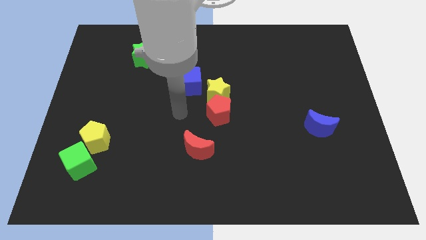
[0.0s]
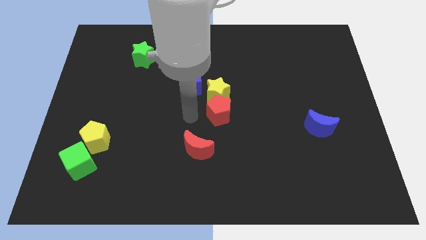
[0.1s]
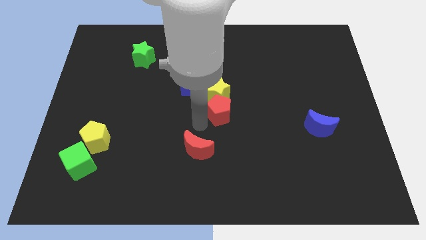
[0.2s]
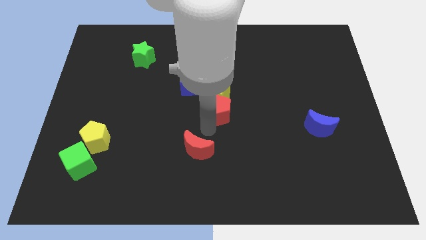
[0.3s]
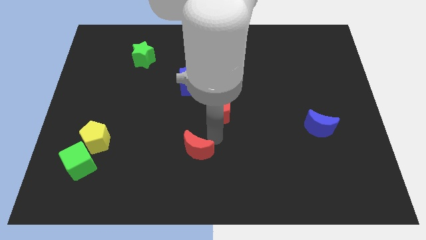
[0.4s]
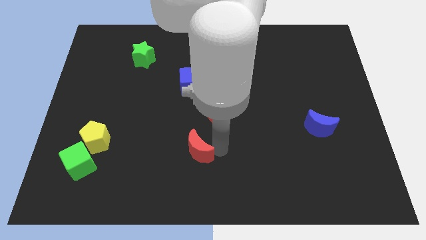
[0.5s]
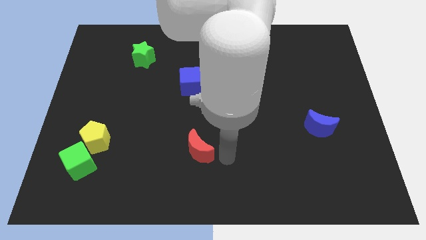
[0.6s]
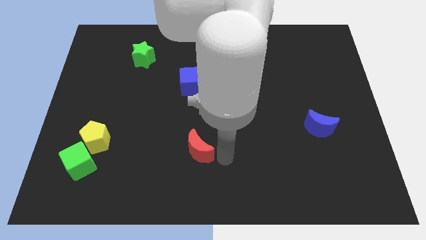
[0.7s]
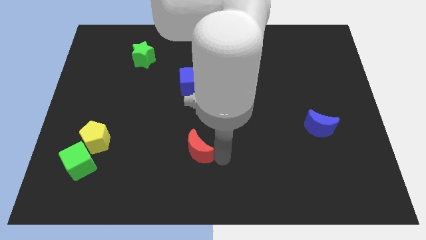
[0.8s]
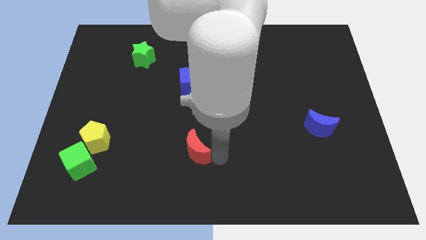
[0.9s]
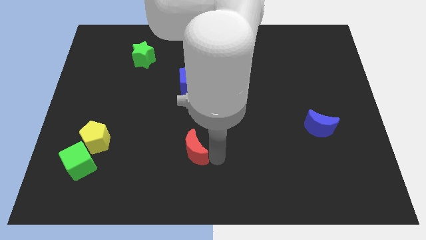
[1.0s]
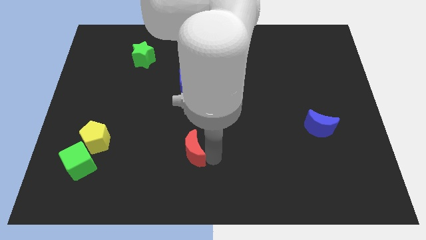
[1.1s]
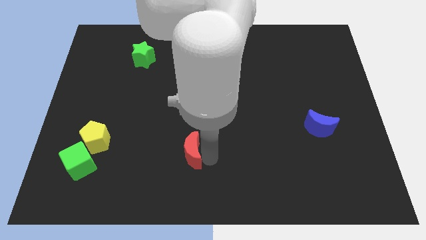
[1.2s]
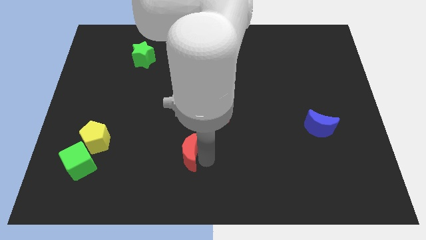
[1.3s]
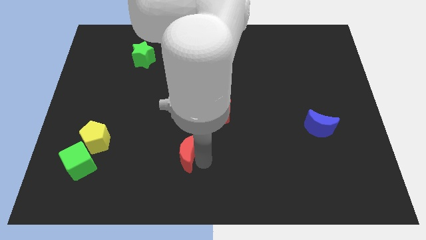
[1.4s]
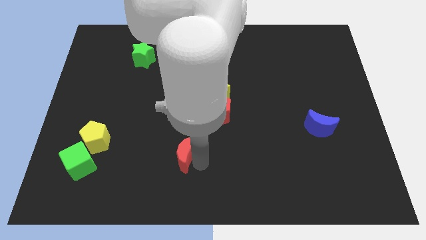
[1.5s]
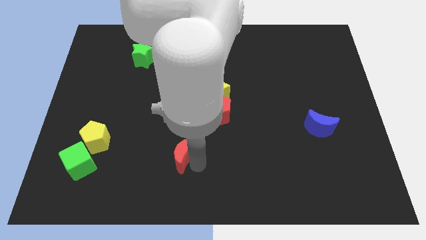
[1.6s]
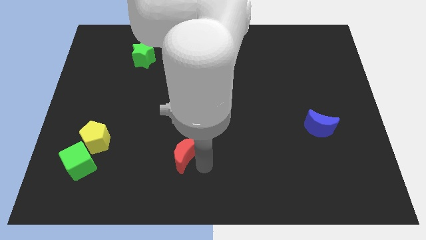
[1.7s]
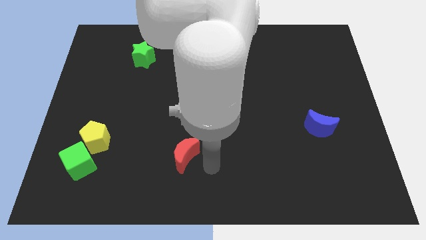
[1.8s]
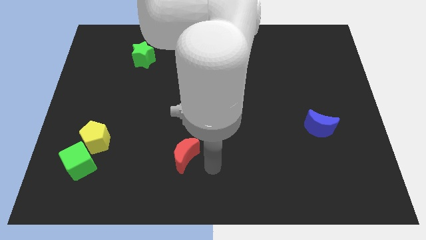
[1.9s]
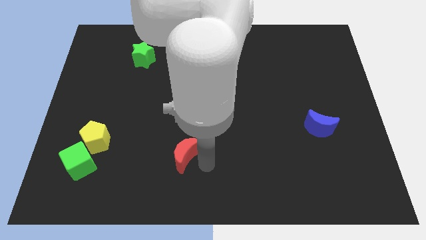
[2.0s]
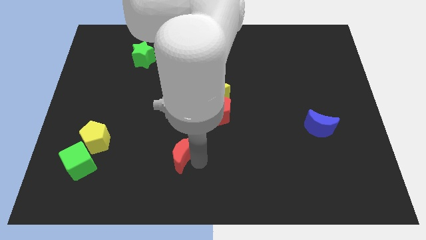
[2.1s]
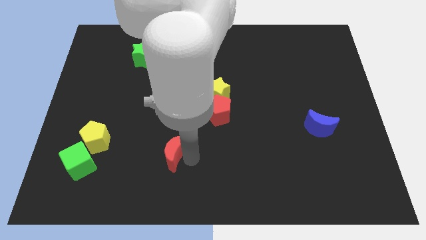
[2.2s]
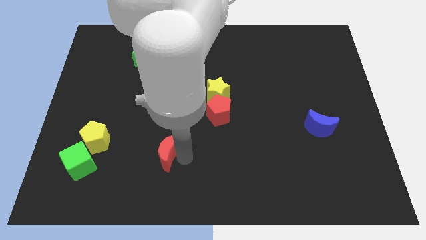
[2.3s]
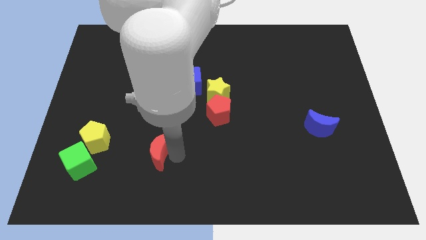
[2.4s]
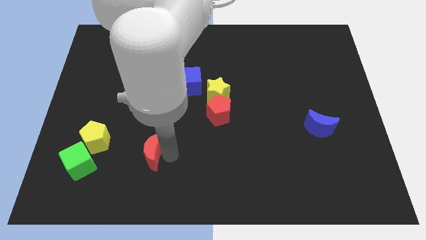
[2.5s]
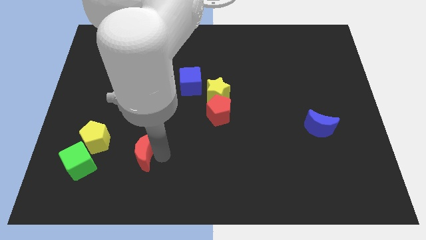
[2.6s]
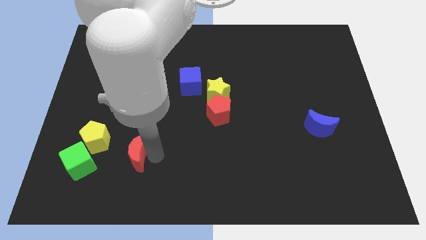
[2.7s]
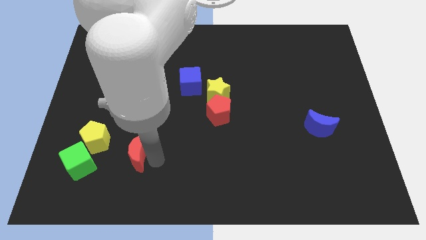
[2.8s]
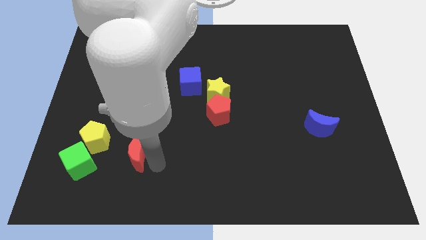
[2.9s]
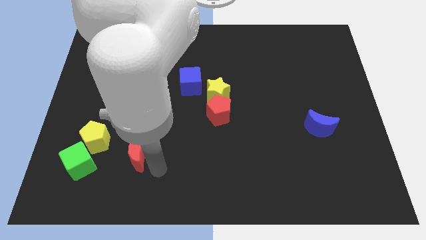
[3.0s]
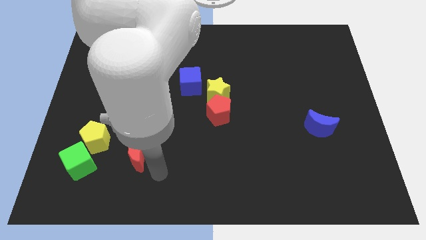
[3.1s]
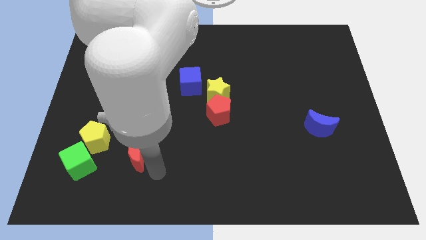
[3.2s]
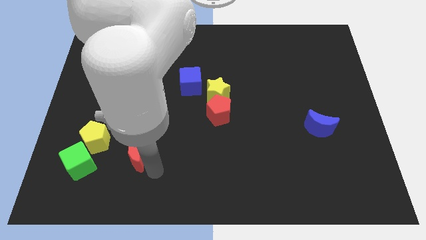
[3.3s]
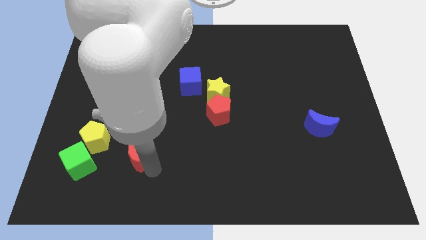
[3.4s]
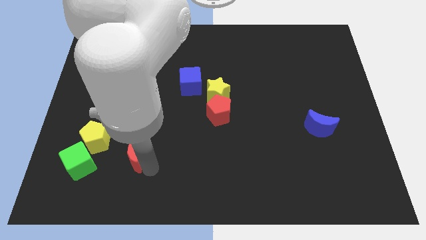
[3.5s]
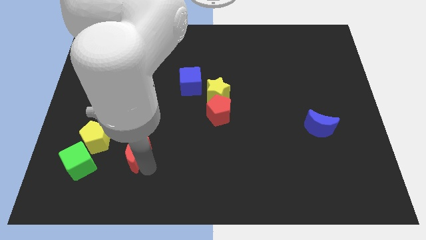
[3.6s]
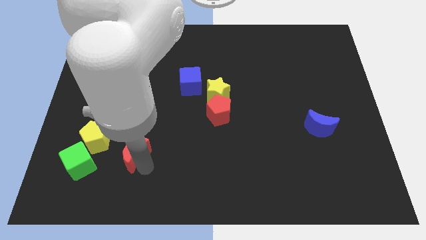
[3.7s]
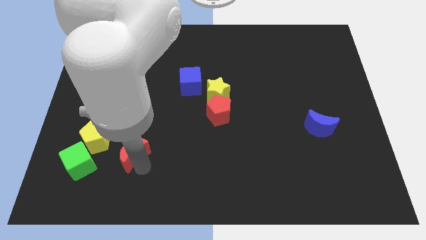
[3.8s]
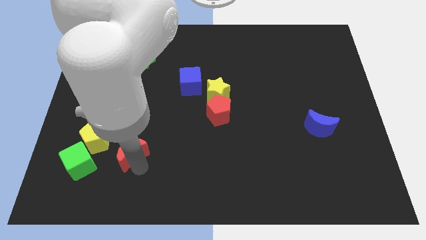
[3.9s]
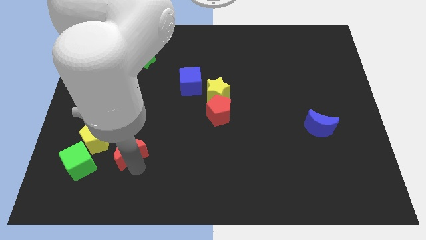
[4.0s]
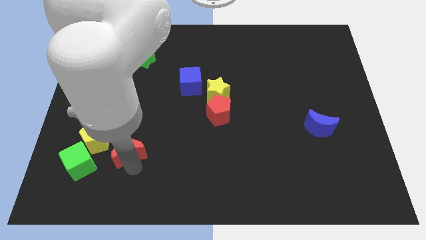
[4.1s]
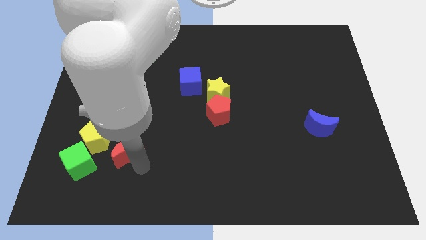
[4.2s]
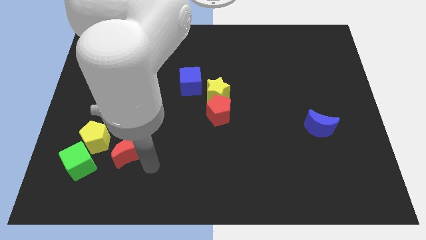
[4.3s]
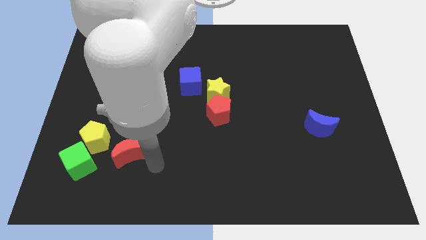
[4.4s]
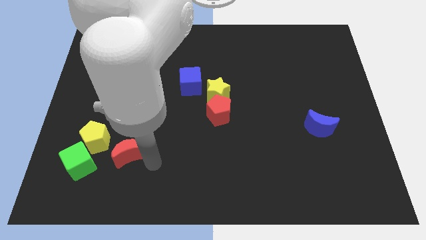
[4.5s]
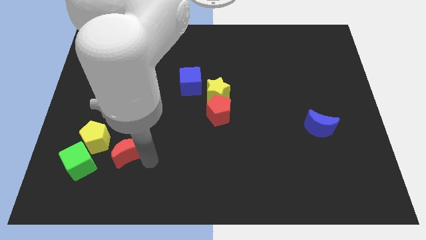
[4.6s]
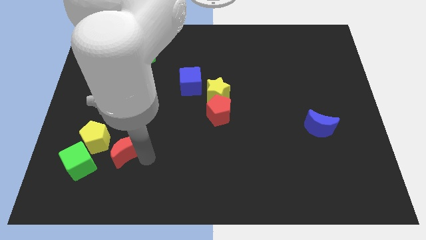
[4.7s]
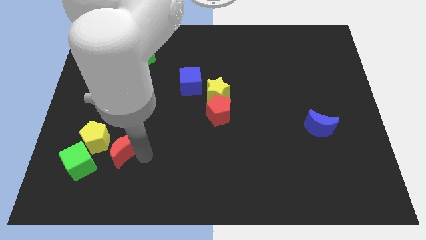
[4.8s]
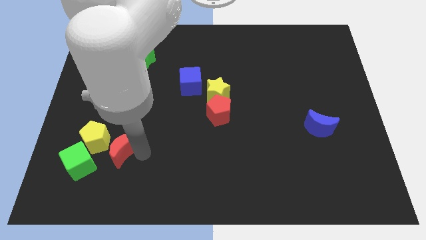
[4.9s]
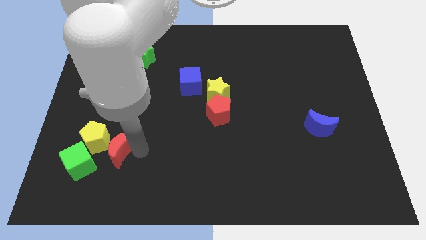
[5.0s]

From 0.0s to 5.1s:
move the red moon close to the yellow pentagon

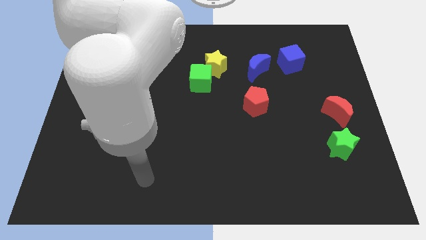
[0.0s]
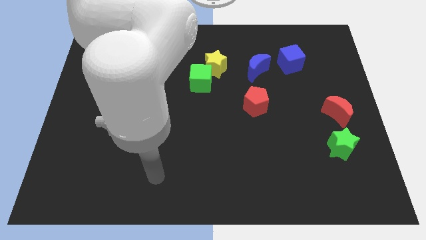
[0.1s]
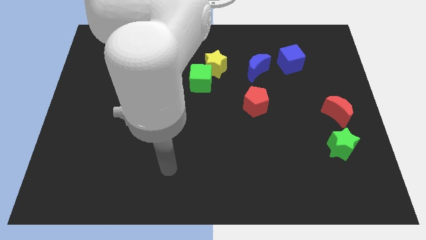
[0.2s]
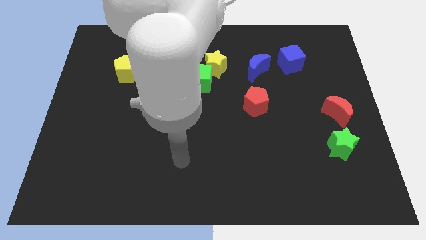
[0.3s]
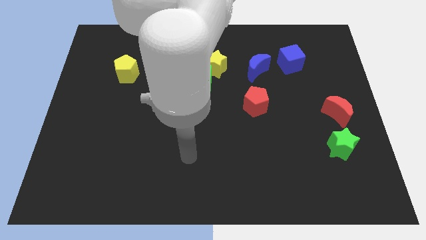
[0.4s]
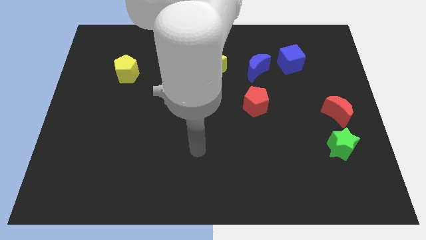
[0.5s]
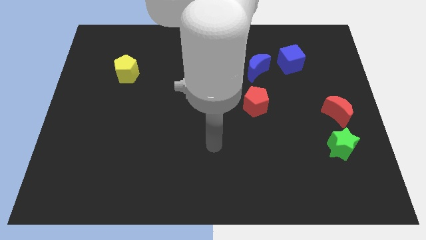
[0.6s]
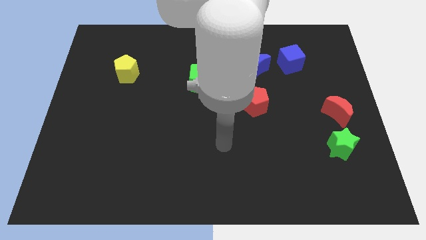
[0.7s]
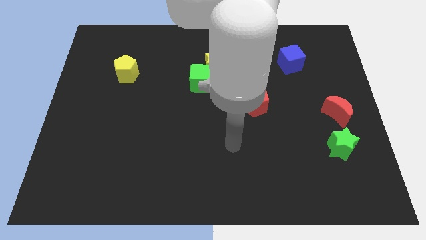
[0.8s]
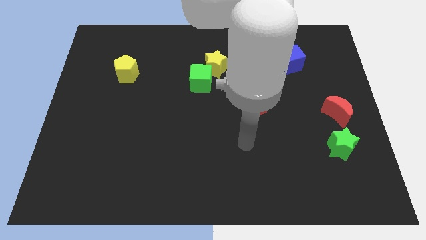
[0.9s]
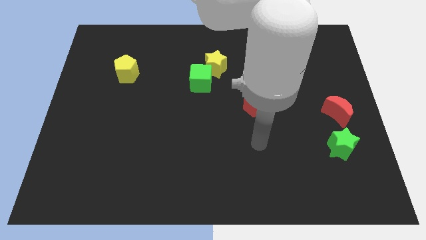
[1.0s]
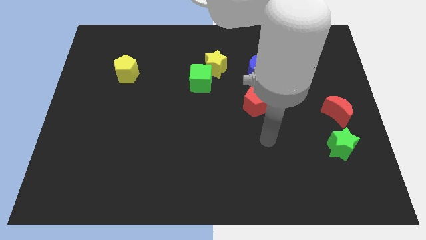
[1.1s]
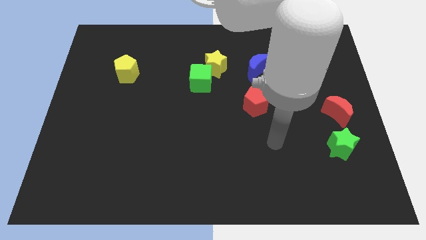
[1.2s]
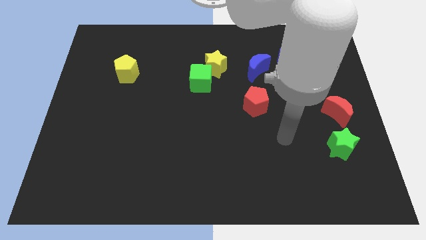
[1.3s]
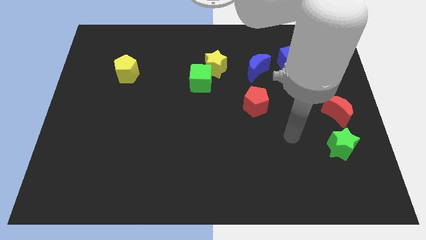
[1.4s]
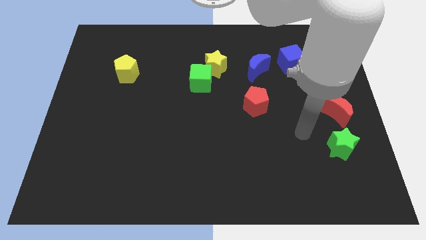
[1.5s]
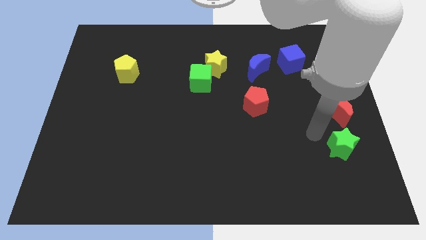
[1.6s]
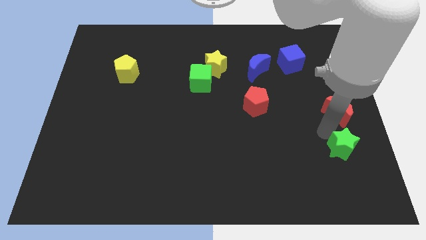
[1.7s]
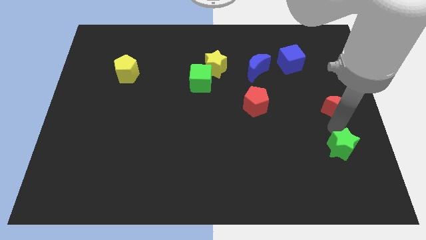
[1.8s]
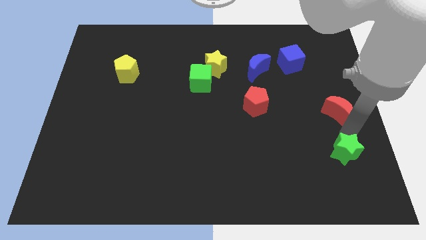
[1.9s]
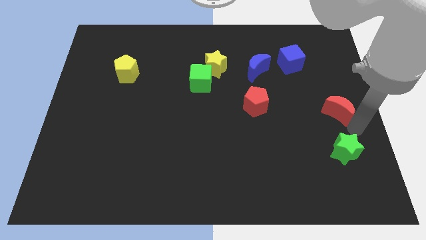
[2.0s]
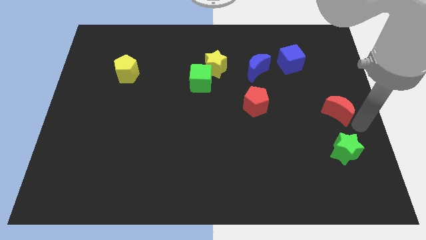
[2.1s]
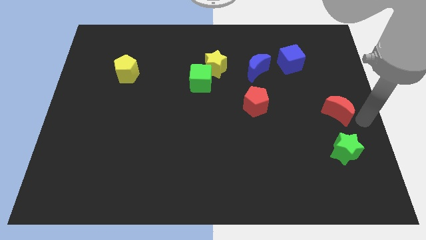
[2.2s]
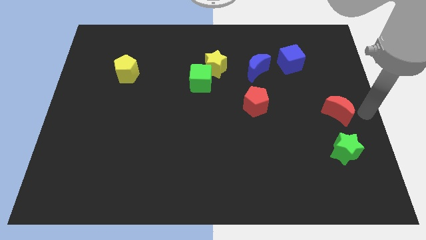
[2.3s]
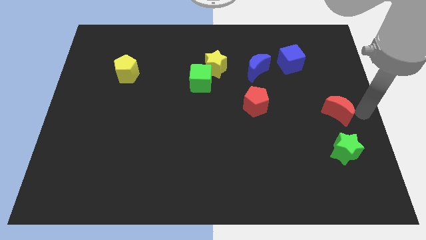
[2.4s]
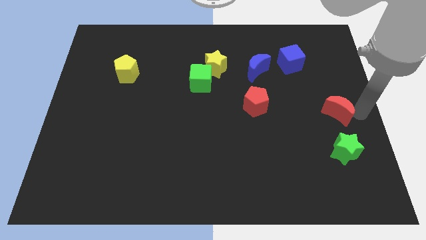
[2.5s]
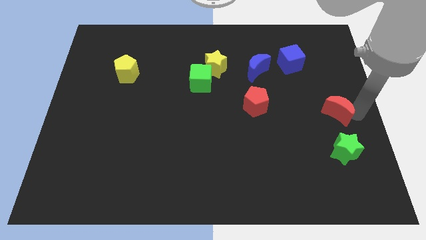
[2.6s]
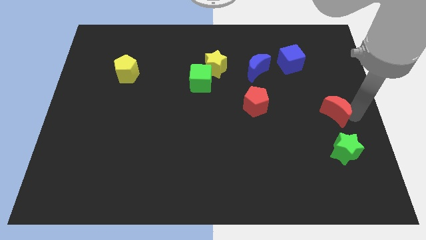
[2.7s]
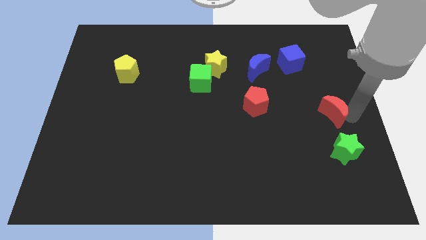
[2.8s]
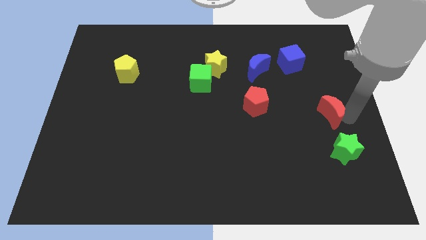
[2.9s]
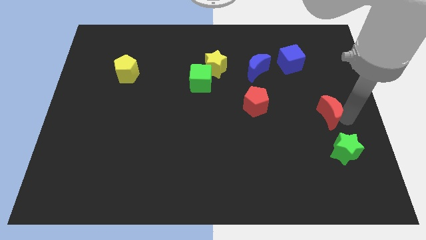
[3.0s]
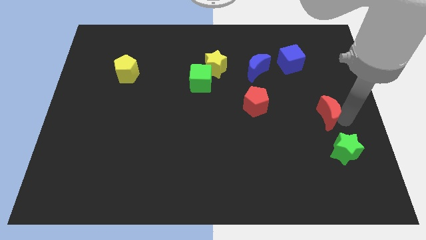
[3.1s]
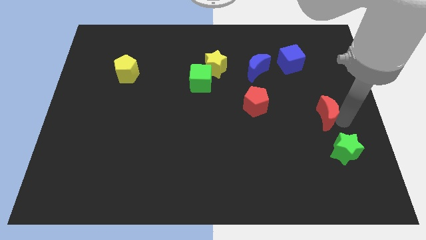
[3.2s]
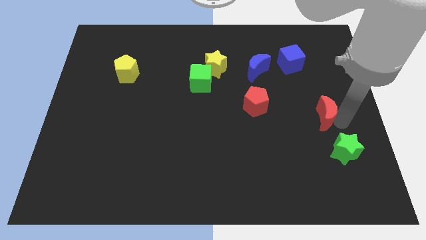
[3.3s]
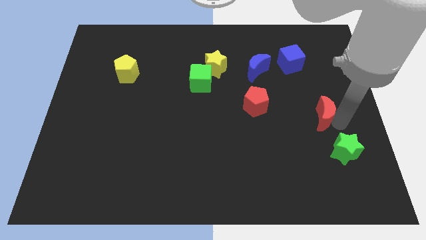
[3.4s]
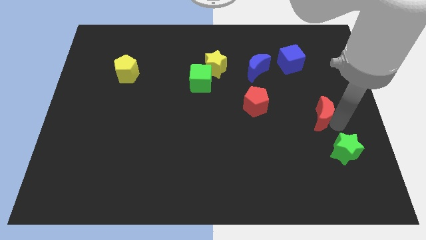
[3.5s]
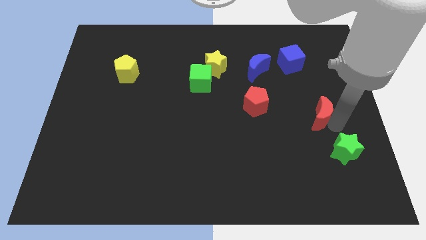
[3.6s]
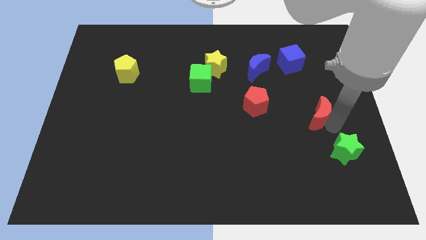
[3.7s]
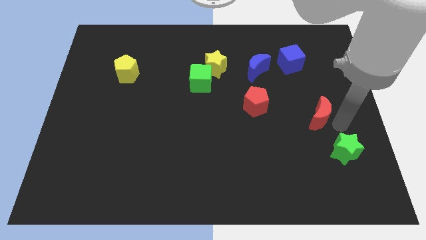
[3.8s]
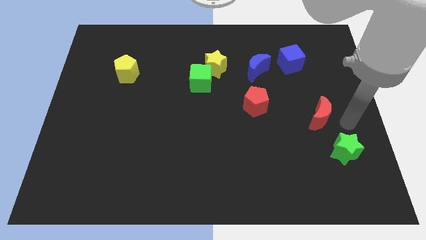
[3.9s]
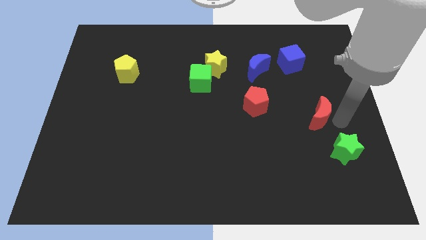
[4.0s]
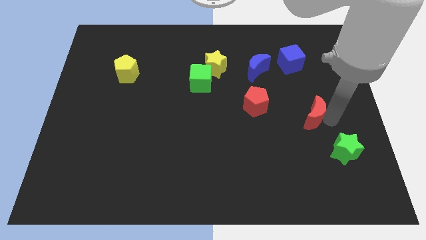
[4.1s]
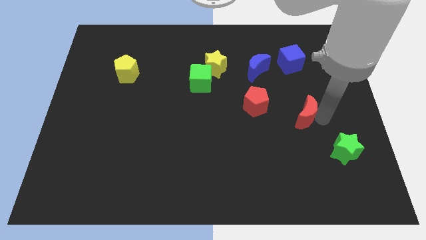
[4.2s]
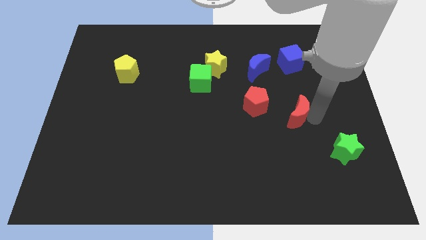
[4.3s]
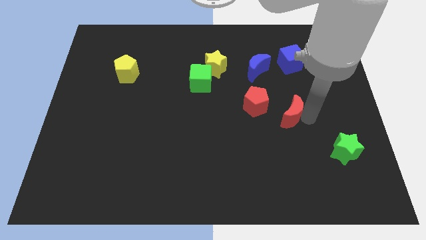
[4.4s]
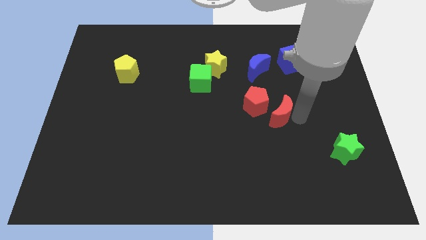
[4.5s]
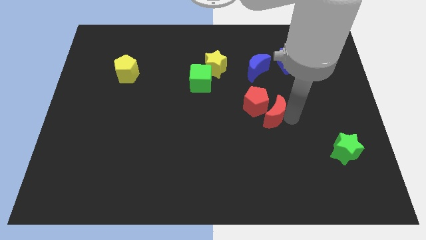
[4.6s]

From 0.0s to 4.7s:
put the red moon close to the red pentagon
